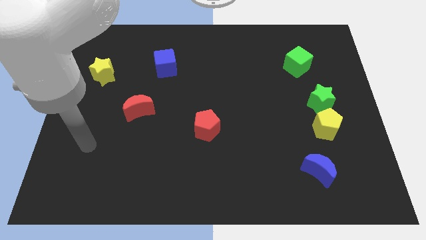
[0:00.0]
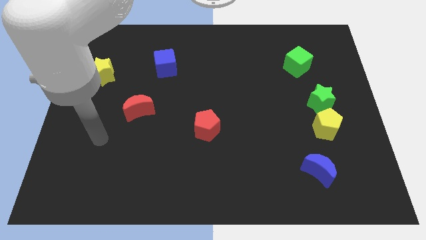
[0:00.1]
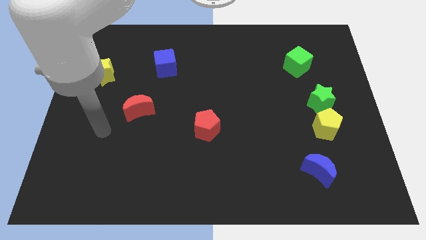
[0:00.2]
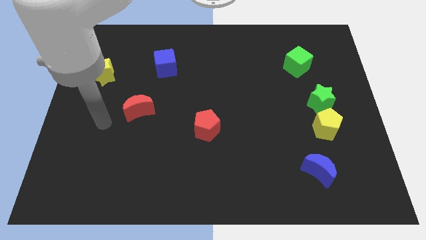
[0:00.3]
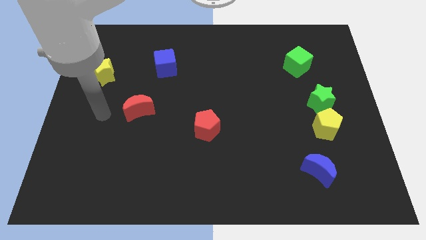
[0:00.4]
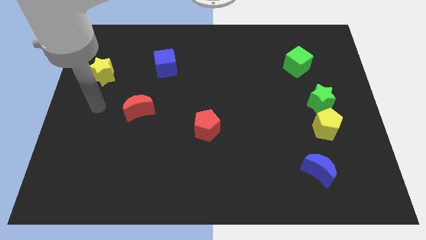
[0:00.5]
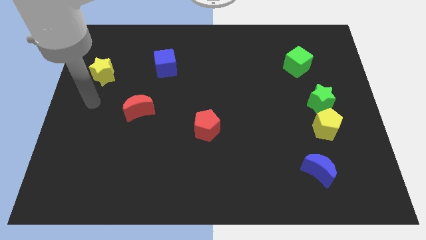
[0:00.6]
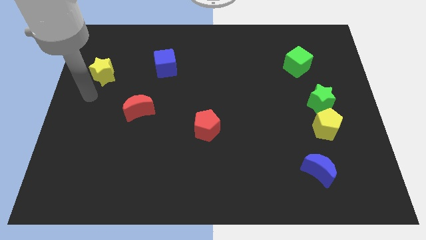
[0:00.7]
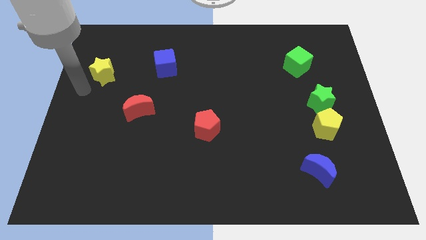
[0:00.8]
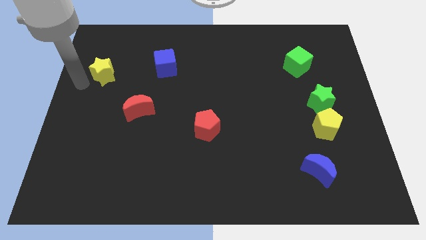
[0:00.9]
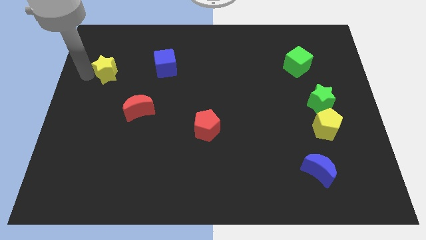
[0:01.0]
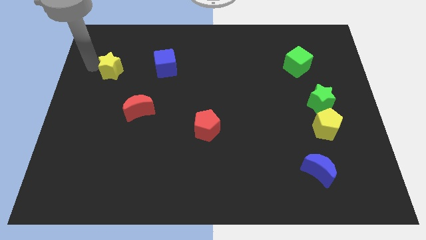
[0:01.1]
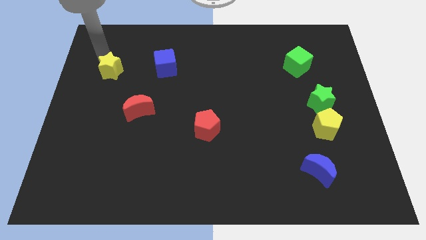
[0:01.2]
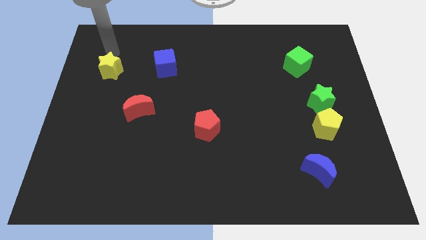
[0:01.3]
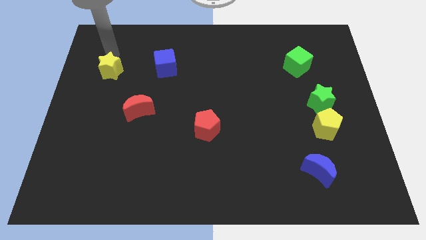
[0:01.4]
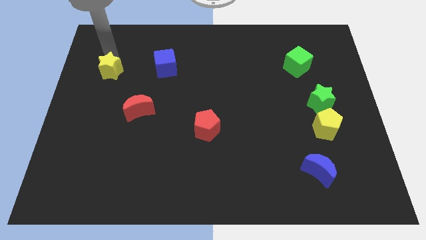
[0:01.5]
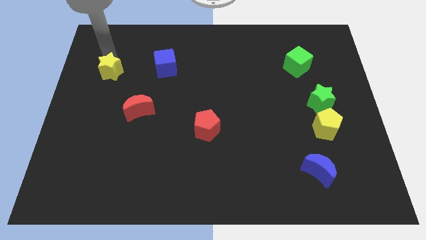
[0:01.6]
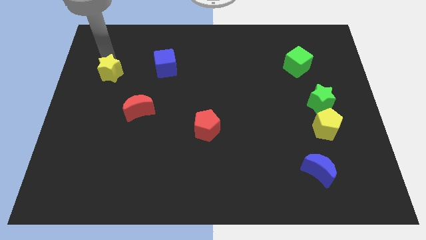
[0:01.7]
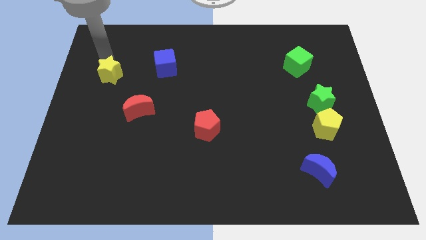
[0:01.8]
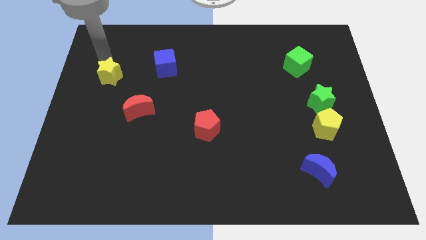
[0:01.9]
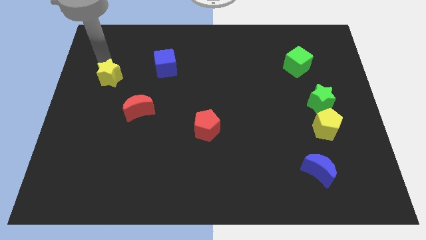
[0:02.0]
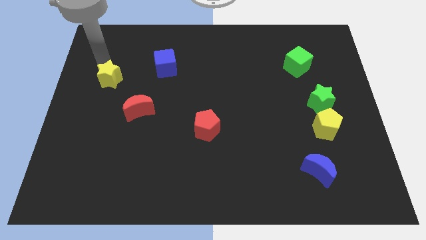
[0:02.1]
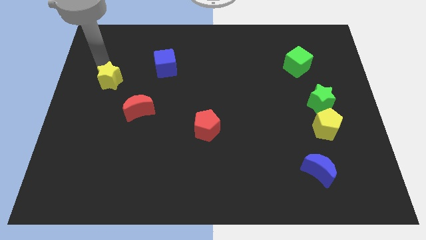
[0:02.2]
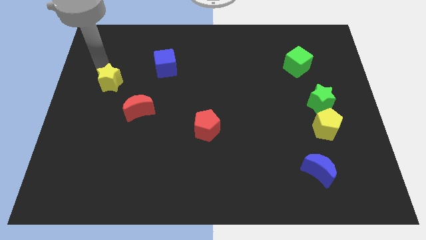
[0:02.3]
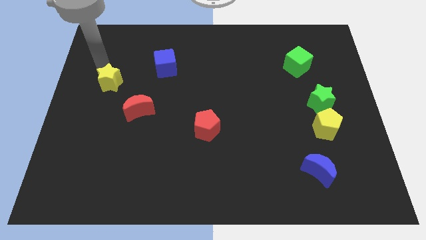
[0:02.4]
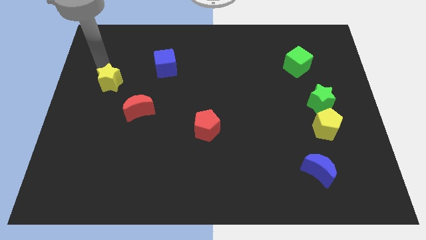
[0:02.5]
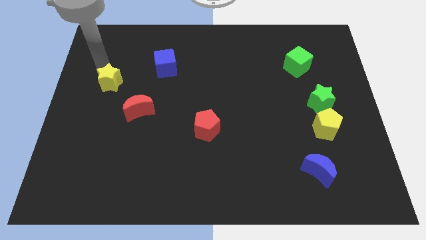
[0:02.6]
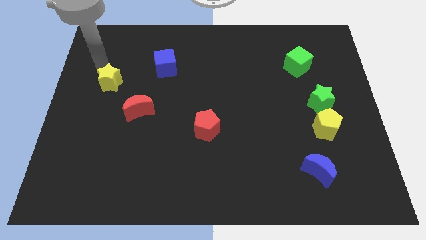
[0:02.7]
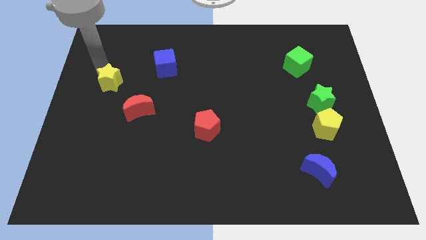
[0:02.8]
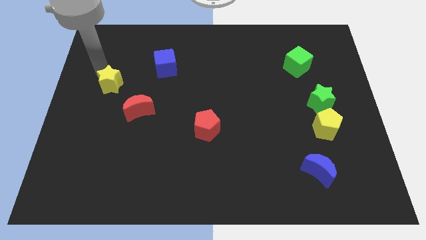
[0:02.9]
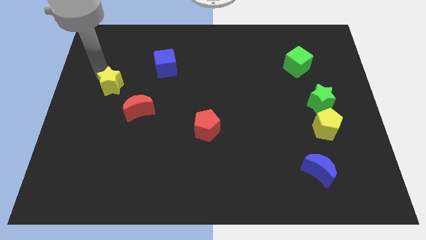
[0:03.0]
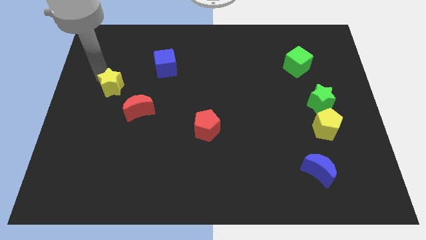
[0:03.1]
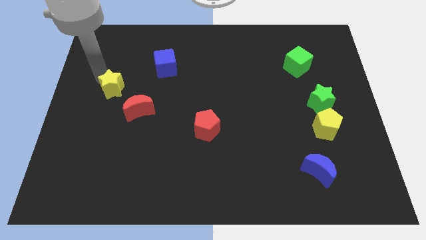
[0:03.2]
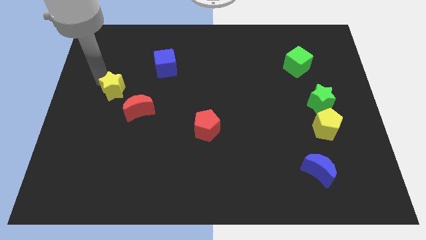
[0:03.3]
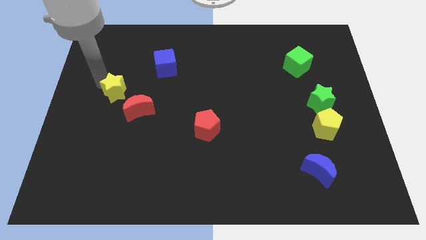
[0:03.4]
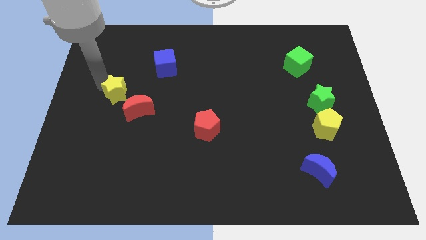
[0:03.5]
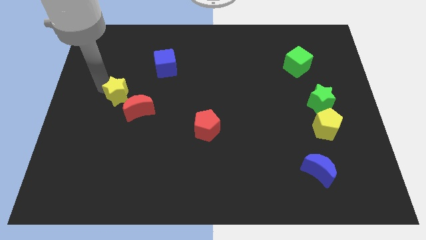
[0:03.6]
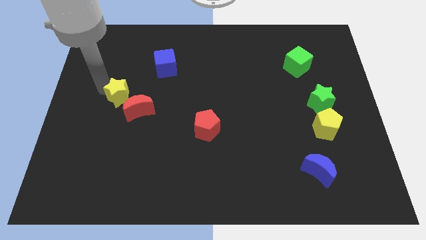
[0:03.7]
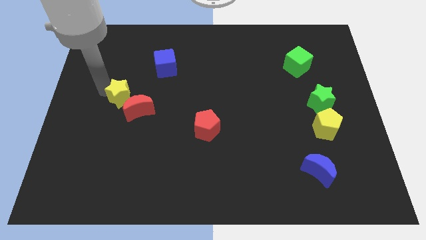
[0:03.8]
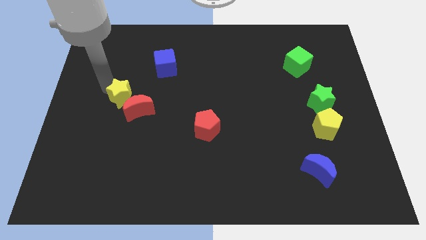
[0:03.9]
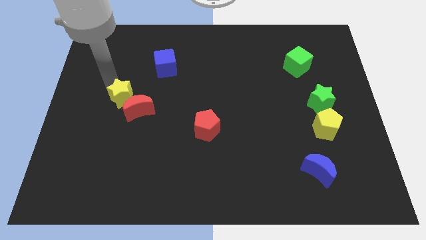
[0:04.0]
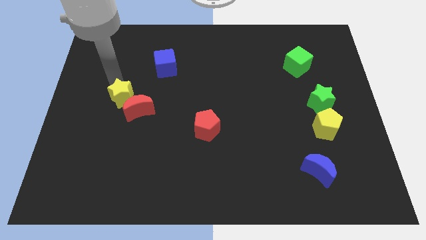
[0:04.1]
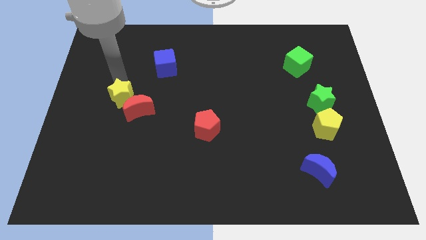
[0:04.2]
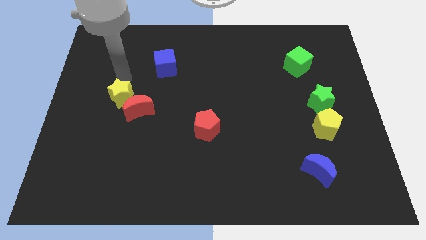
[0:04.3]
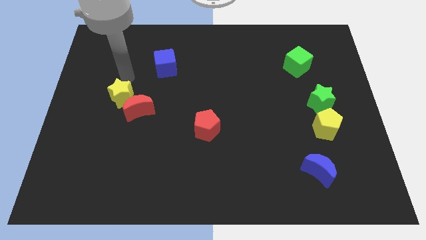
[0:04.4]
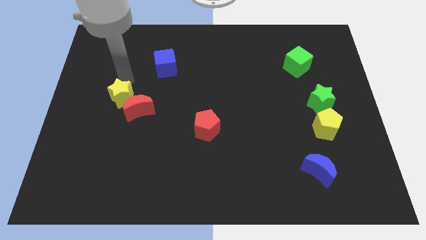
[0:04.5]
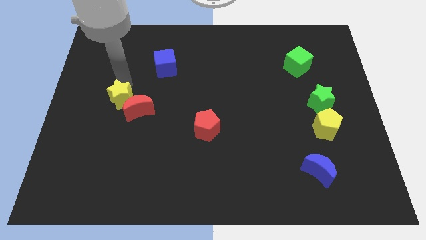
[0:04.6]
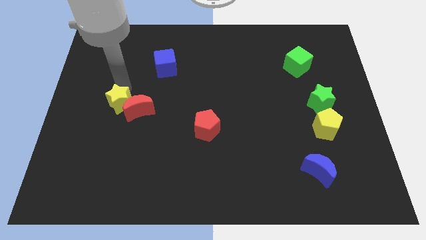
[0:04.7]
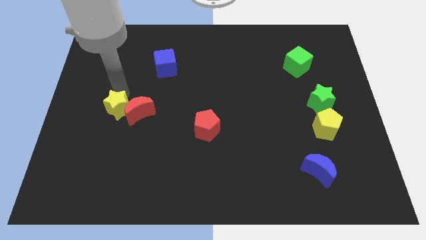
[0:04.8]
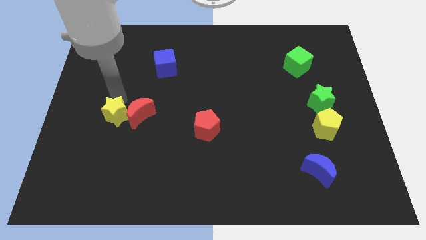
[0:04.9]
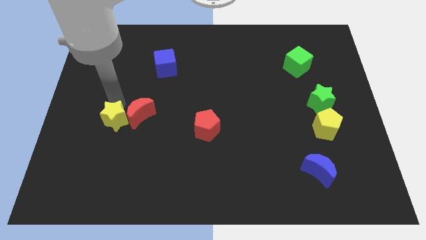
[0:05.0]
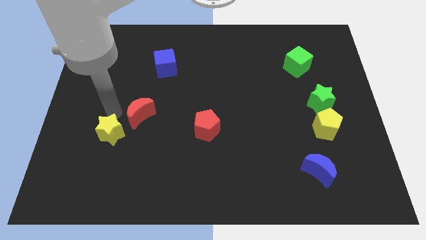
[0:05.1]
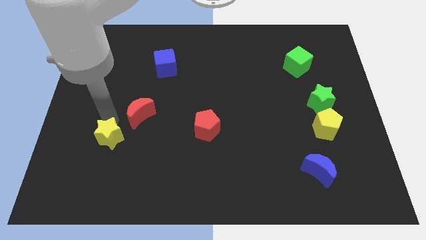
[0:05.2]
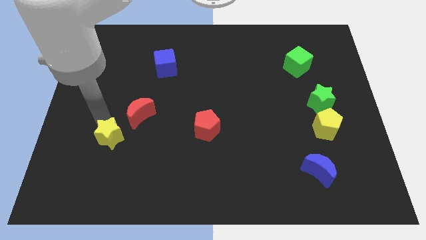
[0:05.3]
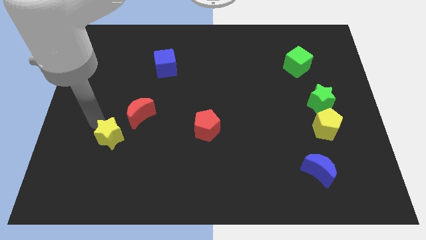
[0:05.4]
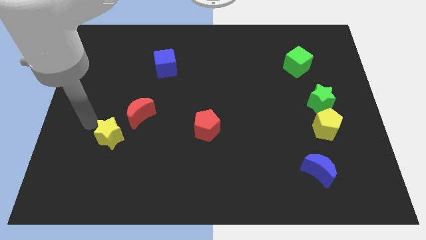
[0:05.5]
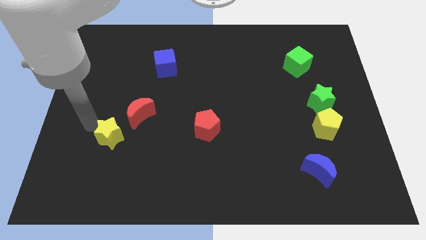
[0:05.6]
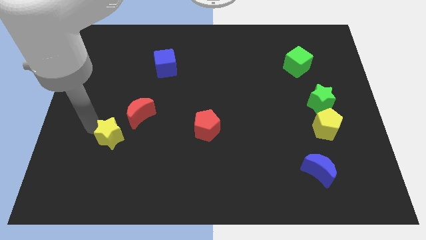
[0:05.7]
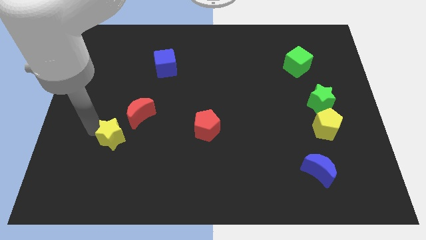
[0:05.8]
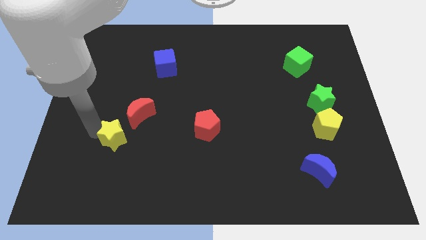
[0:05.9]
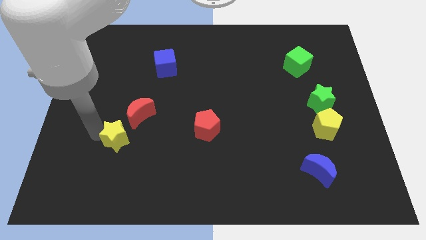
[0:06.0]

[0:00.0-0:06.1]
put the yellow star below the red moon

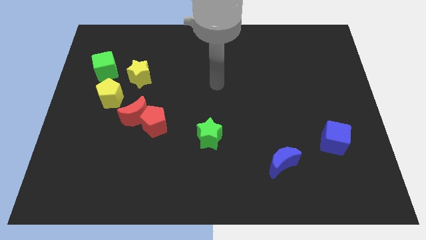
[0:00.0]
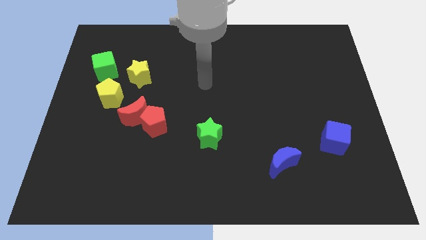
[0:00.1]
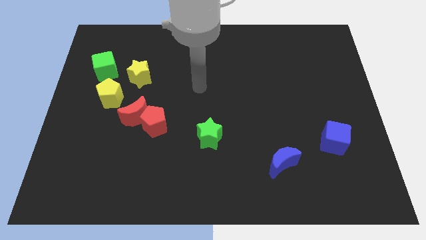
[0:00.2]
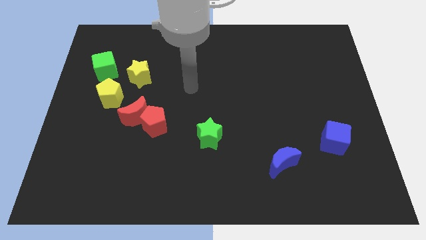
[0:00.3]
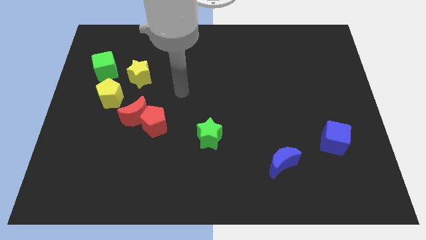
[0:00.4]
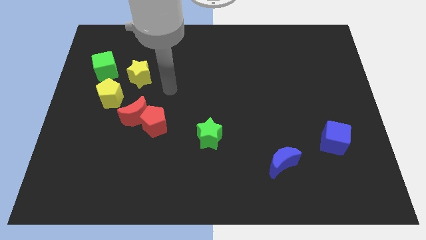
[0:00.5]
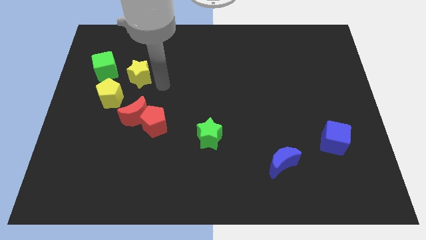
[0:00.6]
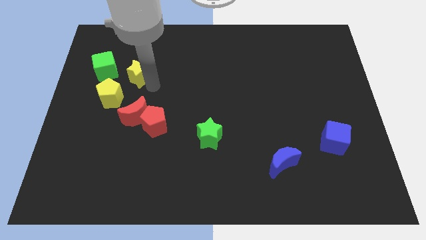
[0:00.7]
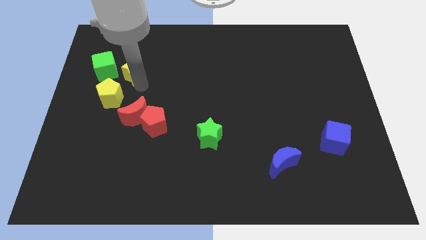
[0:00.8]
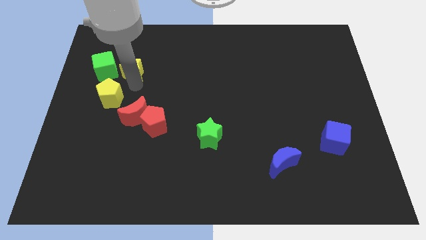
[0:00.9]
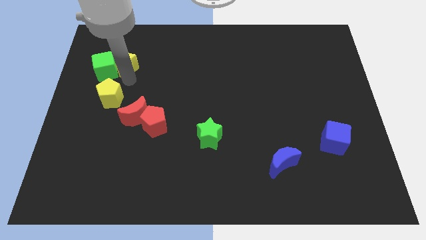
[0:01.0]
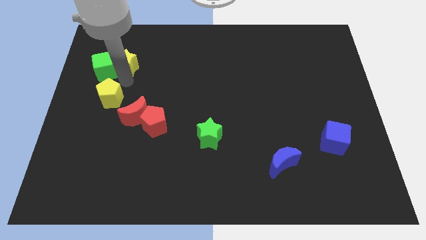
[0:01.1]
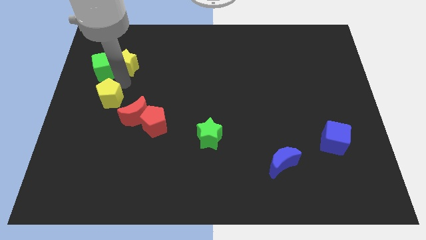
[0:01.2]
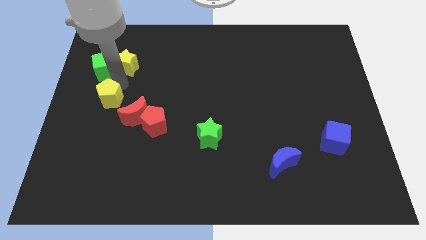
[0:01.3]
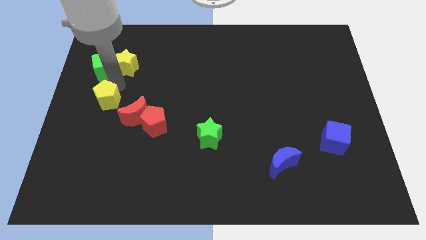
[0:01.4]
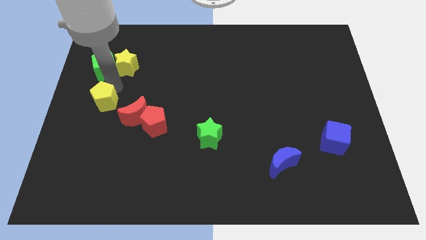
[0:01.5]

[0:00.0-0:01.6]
push the yellow pentagon left of the red moon

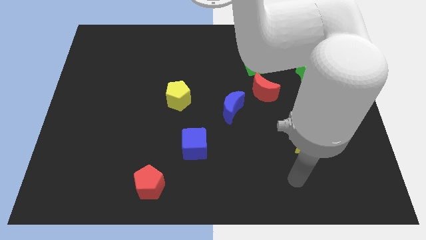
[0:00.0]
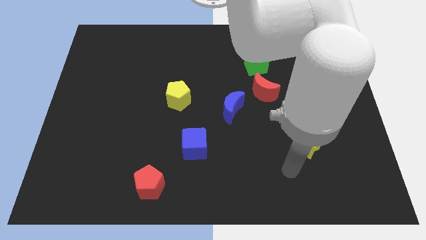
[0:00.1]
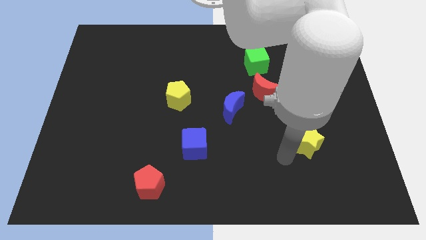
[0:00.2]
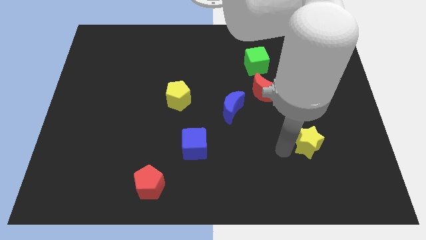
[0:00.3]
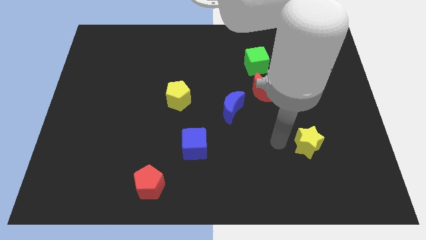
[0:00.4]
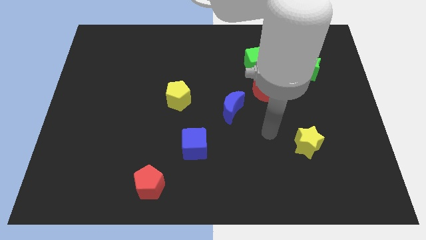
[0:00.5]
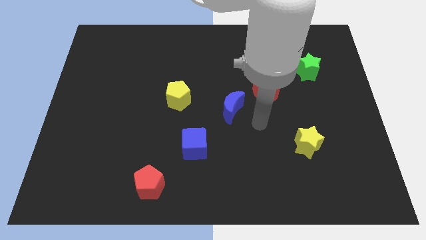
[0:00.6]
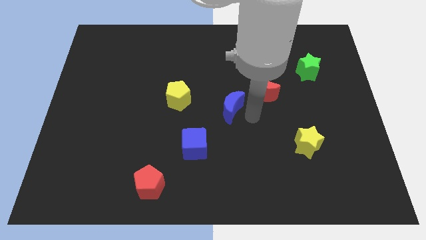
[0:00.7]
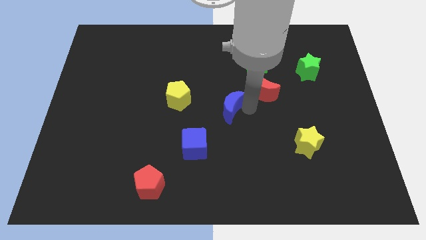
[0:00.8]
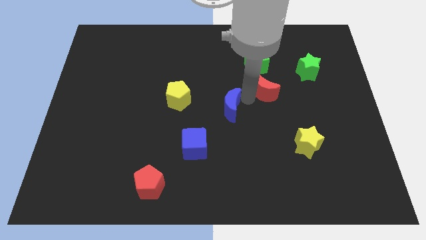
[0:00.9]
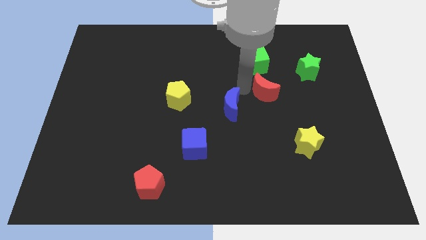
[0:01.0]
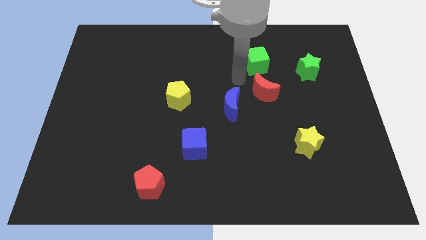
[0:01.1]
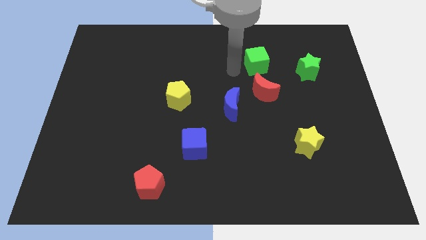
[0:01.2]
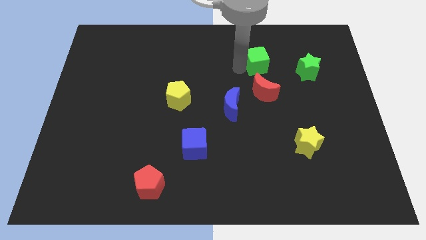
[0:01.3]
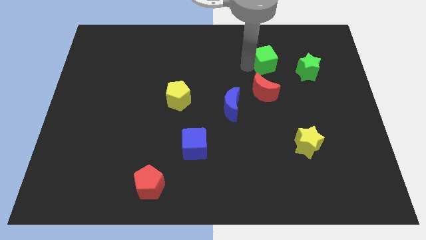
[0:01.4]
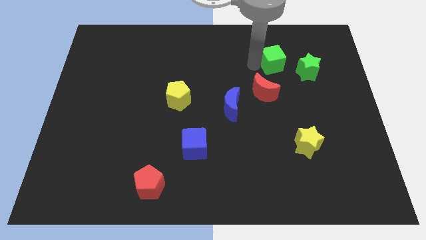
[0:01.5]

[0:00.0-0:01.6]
push the green cube to the top left side of the green star
